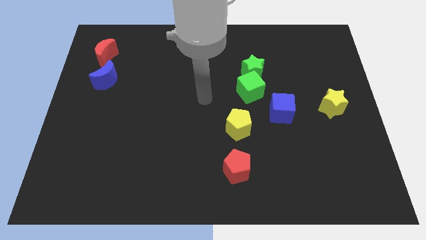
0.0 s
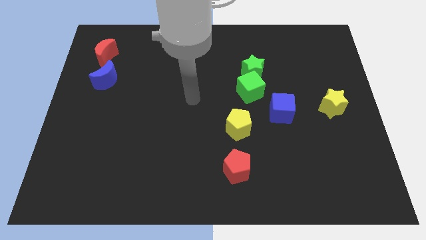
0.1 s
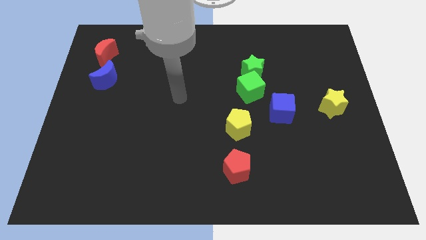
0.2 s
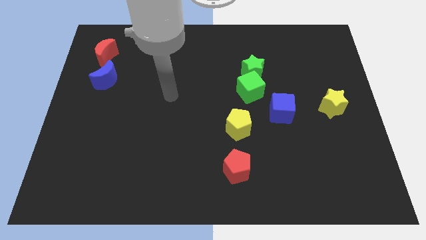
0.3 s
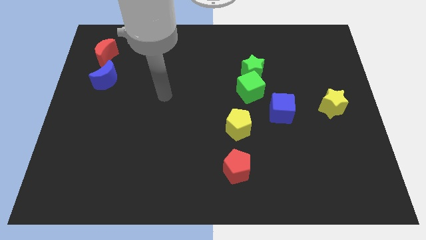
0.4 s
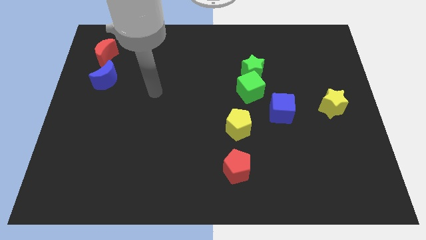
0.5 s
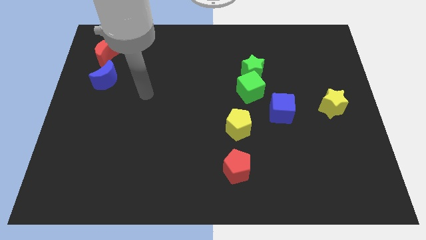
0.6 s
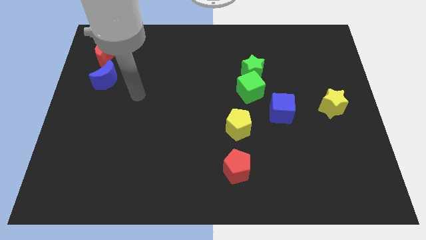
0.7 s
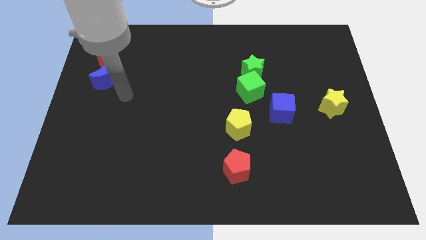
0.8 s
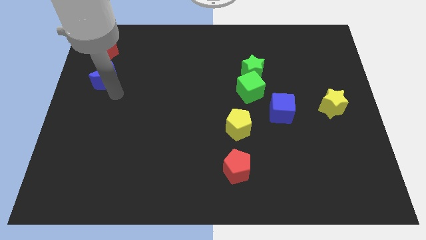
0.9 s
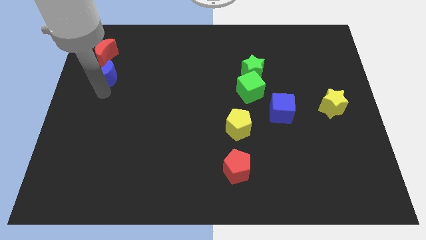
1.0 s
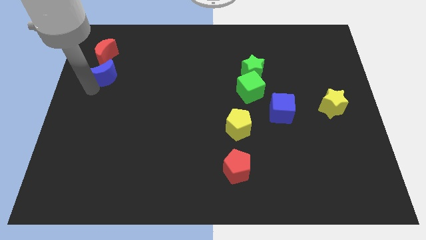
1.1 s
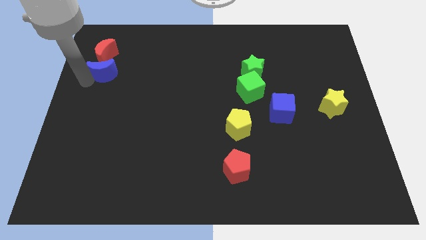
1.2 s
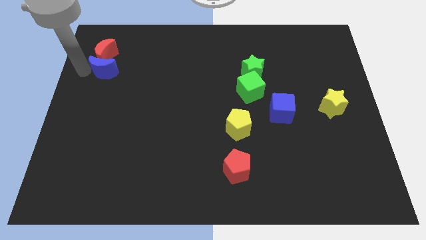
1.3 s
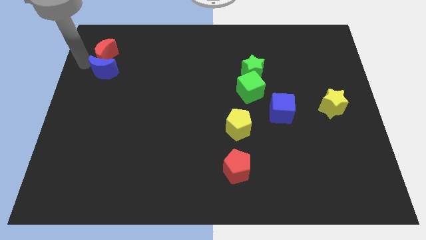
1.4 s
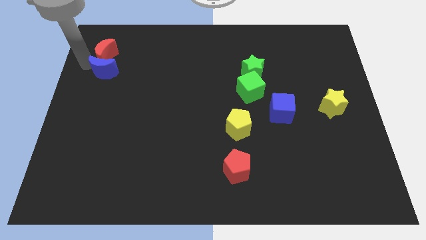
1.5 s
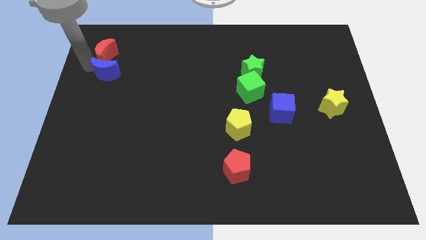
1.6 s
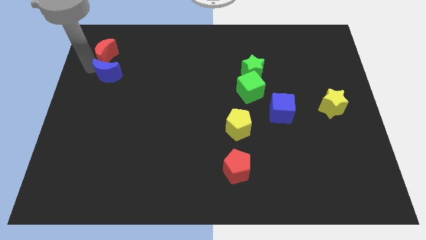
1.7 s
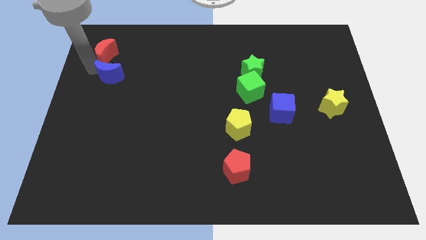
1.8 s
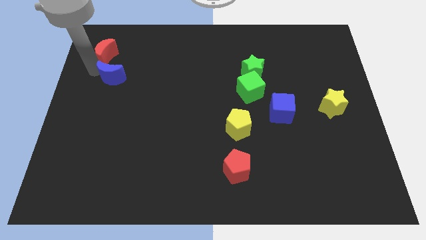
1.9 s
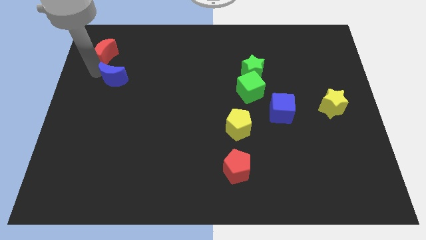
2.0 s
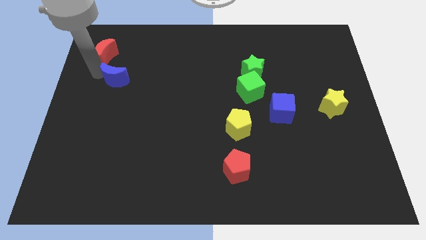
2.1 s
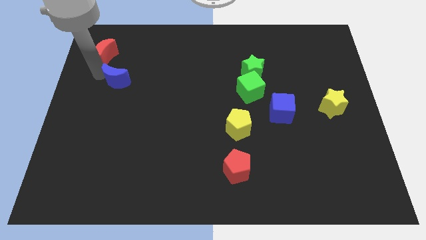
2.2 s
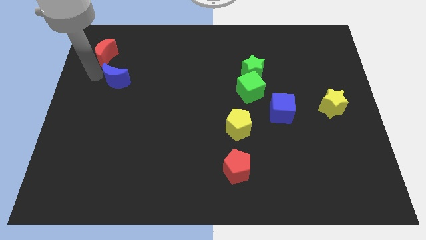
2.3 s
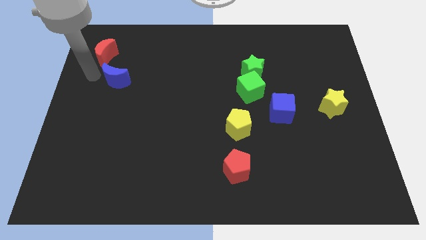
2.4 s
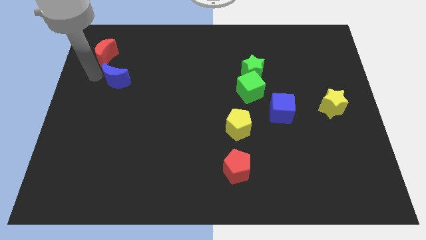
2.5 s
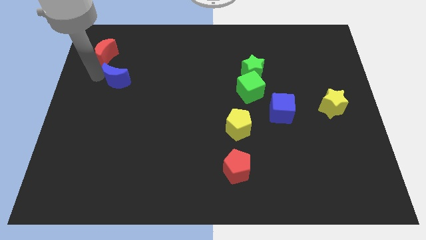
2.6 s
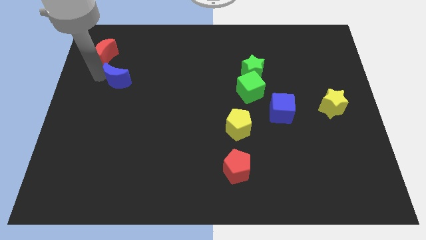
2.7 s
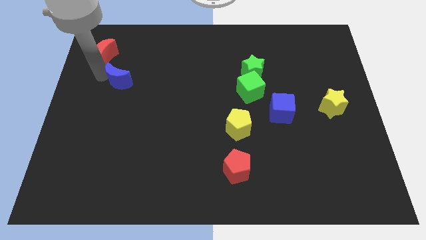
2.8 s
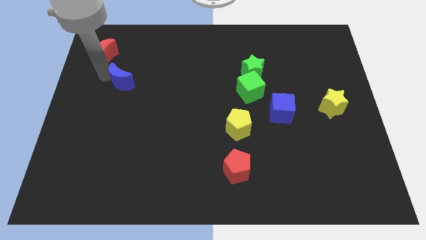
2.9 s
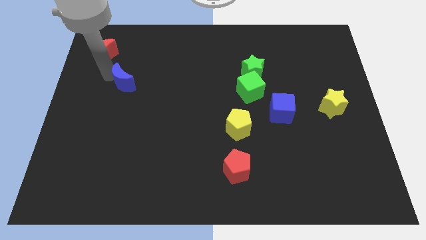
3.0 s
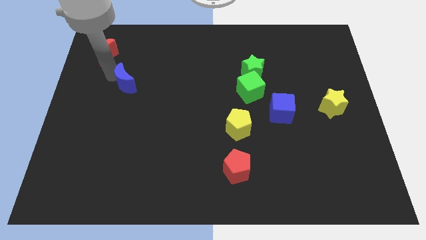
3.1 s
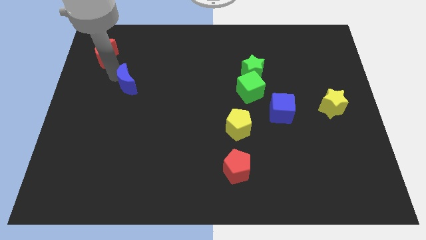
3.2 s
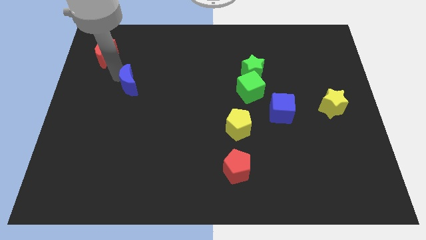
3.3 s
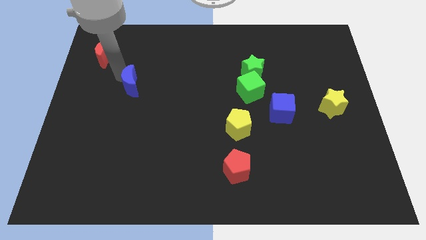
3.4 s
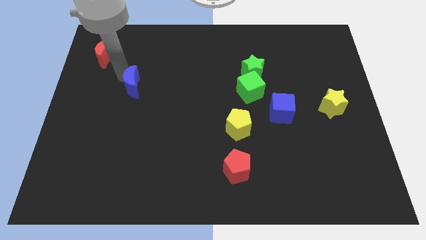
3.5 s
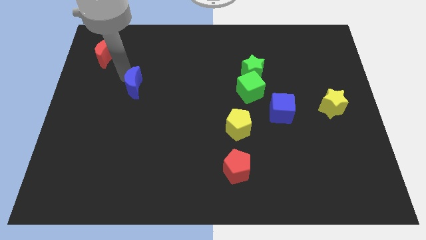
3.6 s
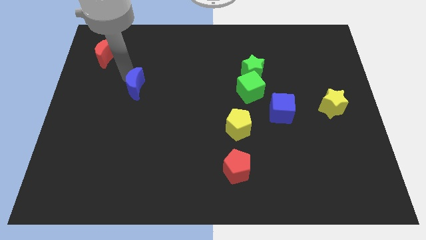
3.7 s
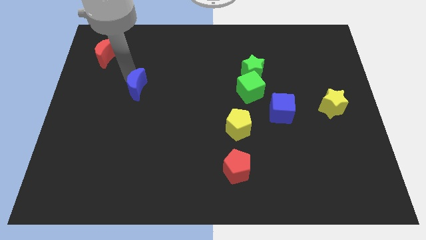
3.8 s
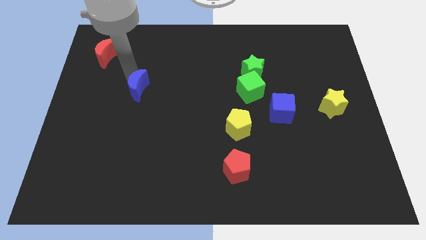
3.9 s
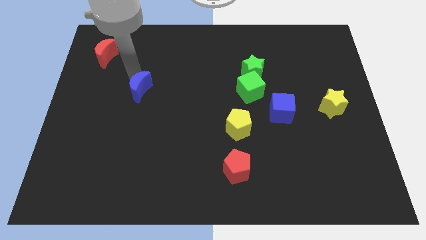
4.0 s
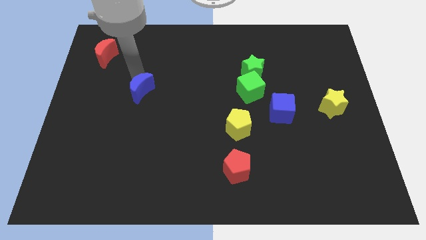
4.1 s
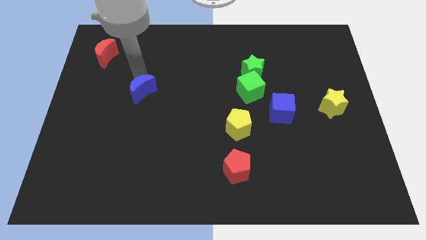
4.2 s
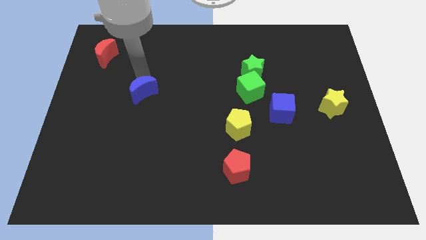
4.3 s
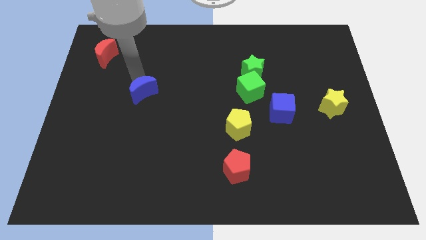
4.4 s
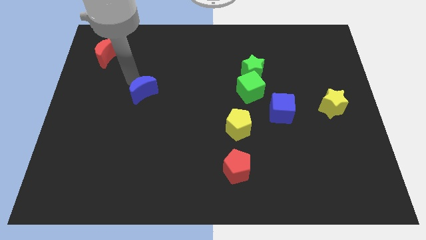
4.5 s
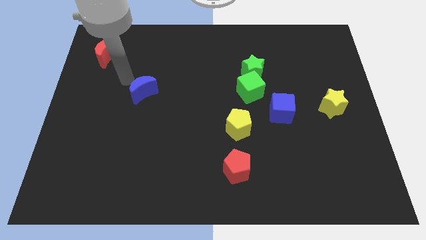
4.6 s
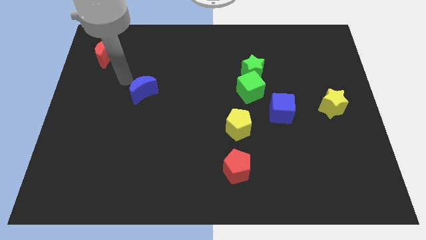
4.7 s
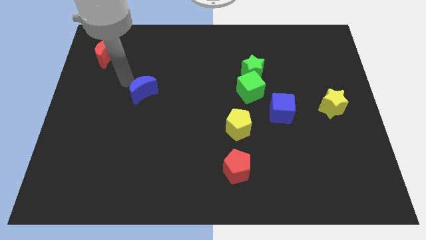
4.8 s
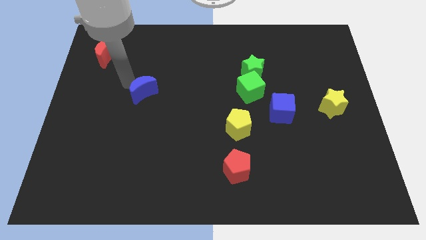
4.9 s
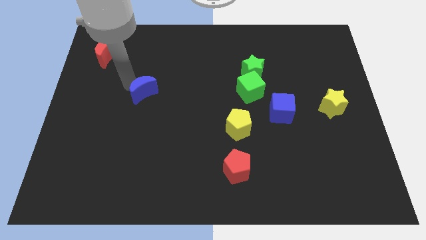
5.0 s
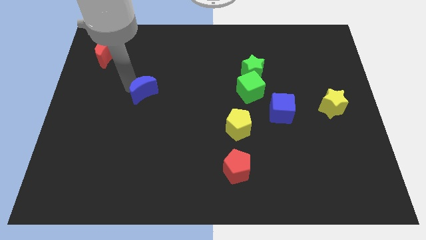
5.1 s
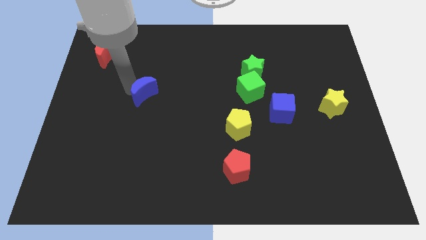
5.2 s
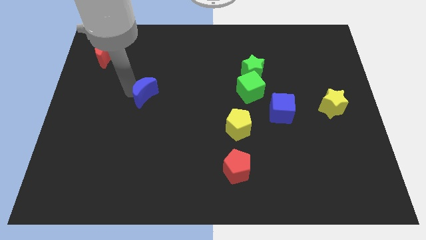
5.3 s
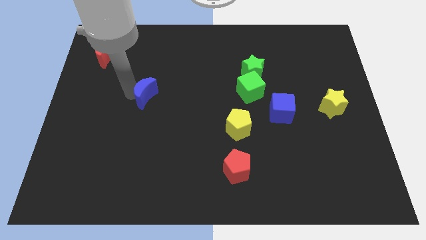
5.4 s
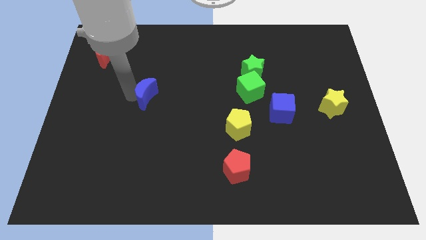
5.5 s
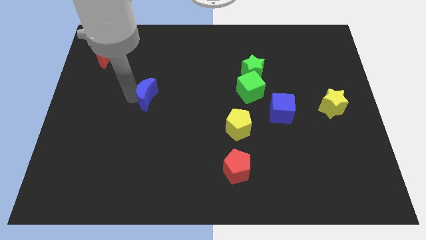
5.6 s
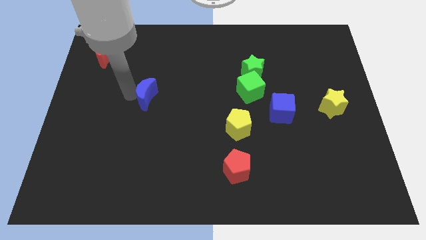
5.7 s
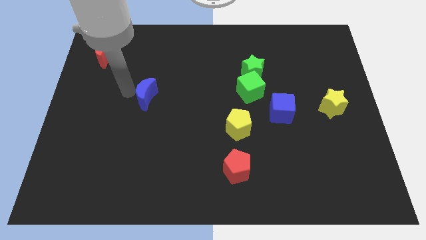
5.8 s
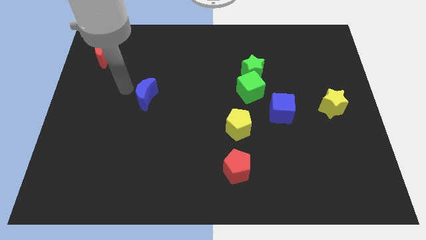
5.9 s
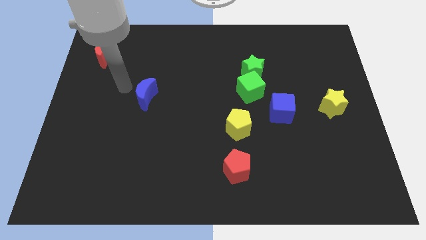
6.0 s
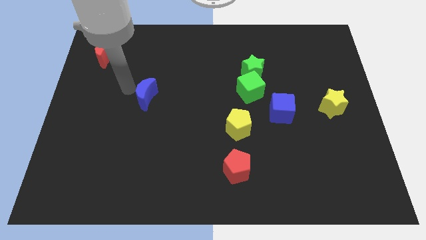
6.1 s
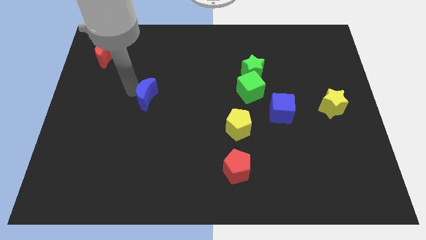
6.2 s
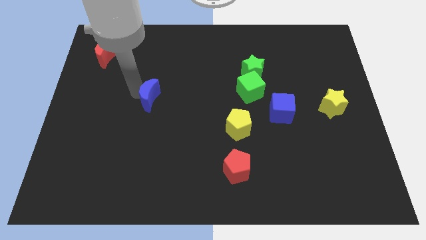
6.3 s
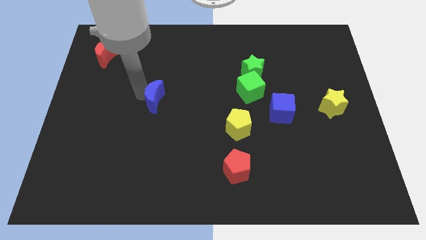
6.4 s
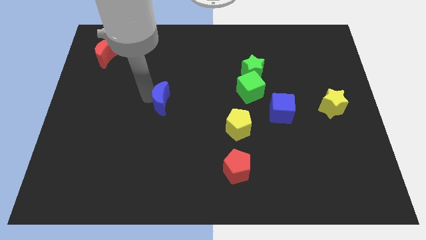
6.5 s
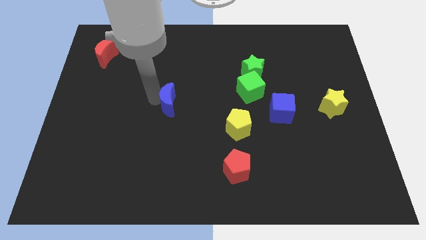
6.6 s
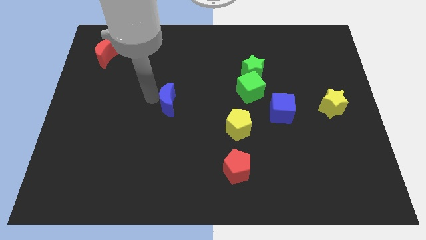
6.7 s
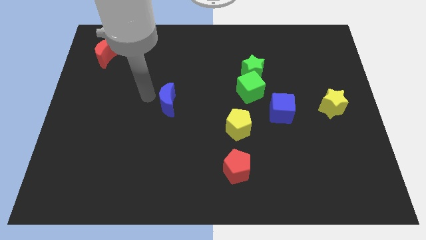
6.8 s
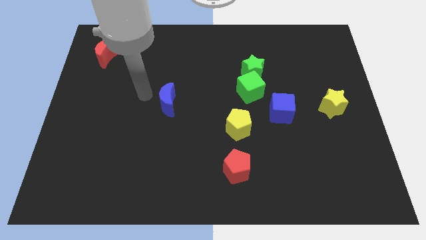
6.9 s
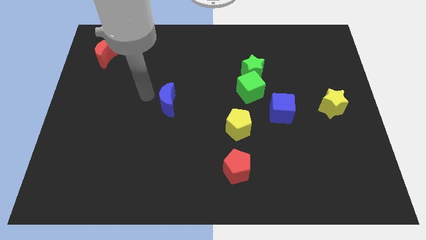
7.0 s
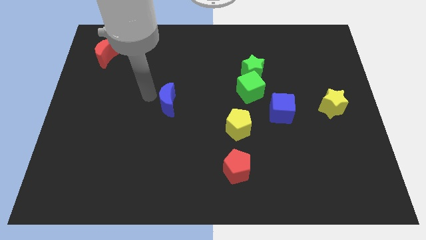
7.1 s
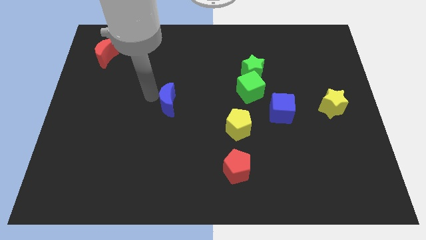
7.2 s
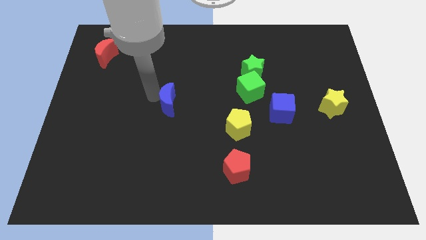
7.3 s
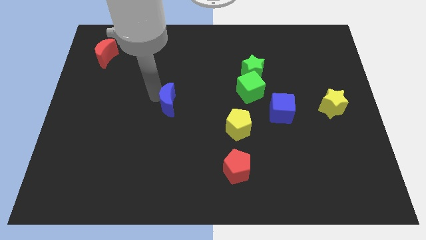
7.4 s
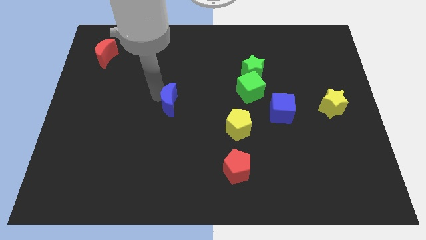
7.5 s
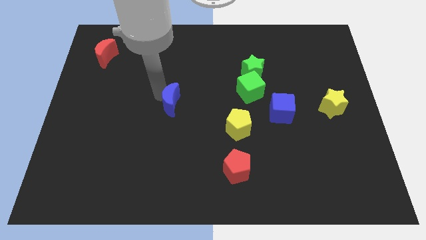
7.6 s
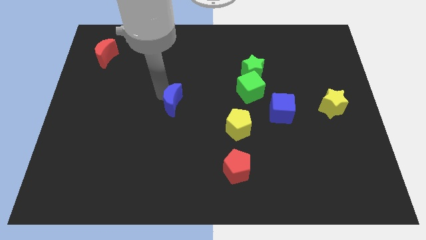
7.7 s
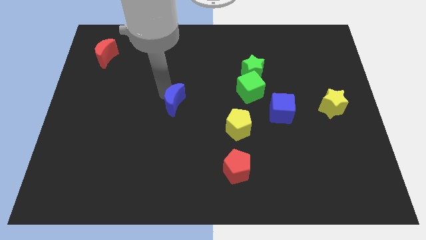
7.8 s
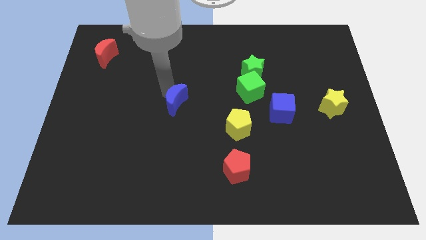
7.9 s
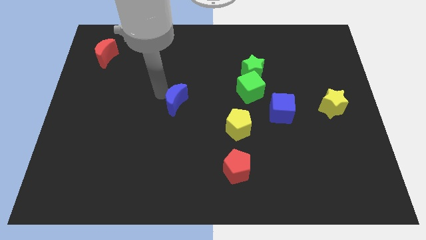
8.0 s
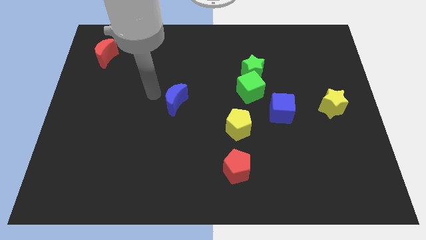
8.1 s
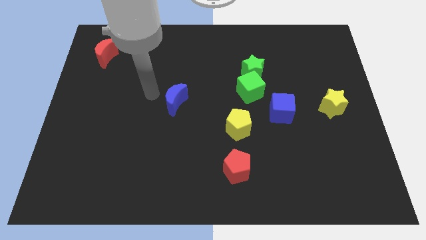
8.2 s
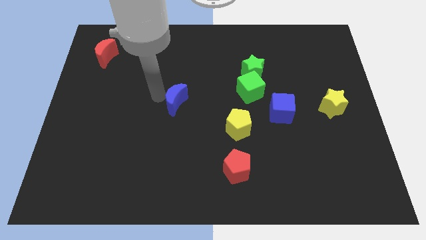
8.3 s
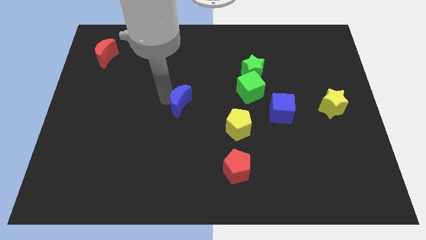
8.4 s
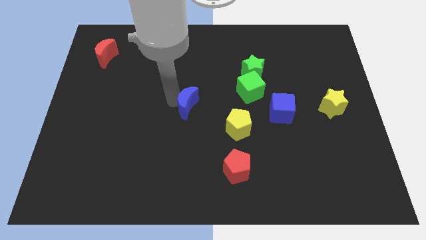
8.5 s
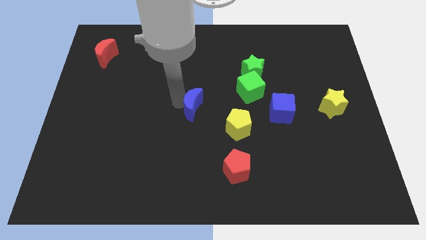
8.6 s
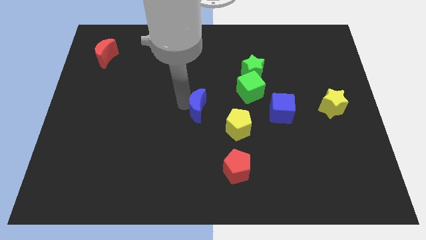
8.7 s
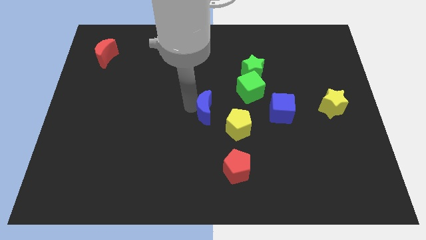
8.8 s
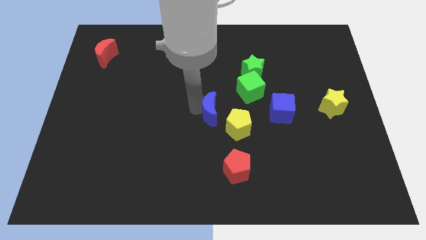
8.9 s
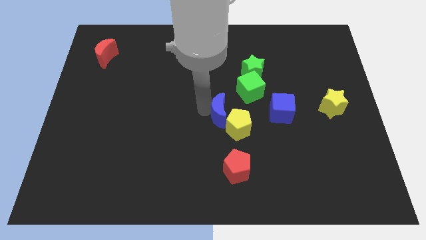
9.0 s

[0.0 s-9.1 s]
put the blue moon towards the yellow pentagon
